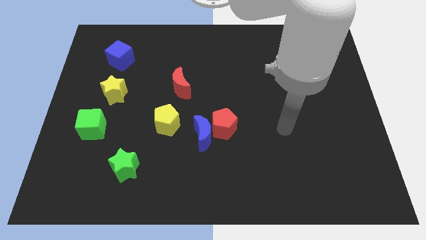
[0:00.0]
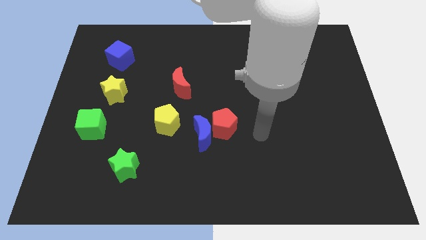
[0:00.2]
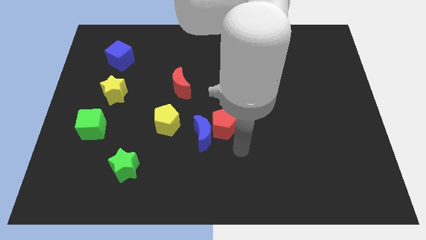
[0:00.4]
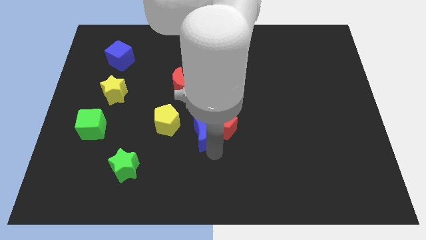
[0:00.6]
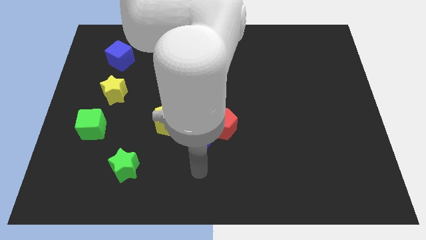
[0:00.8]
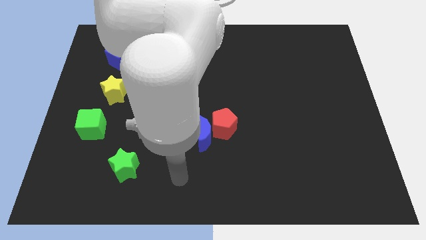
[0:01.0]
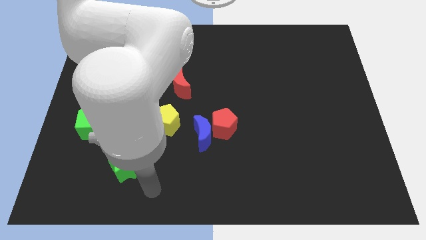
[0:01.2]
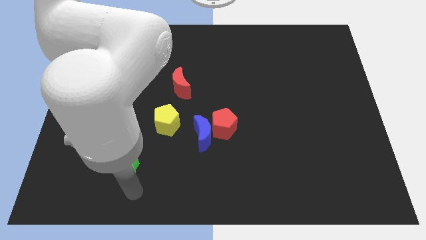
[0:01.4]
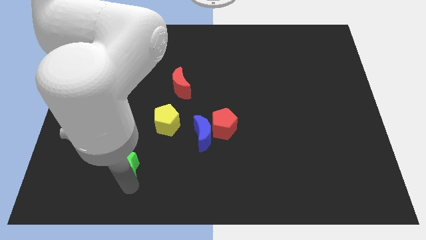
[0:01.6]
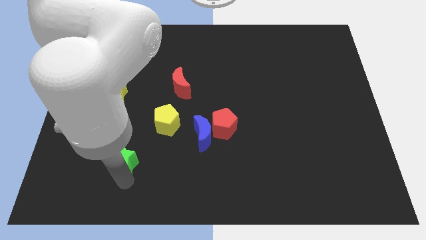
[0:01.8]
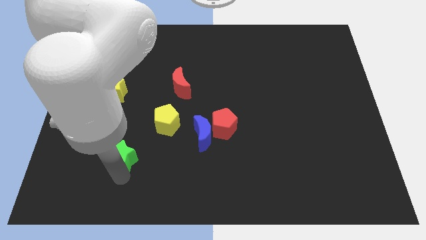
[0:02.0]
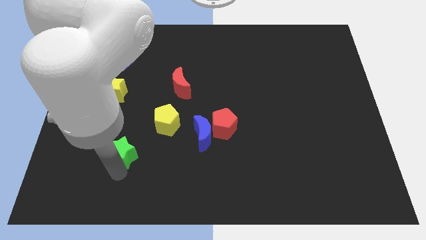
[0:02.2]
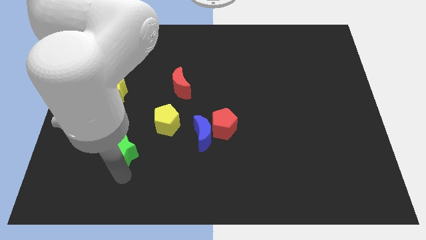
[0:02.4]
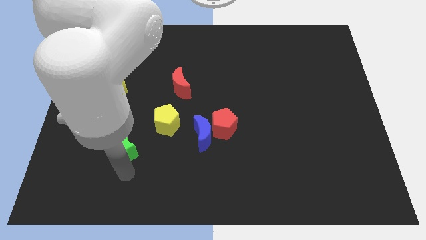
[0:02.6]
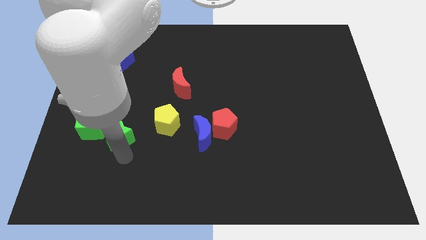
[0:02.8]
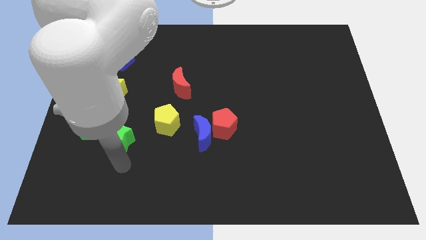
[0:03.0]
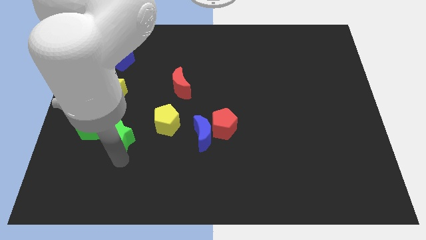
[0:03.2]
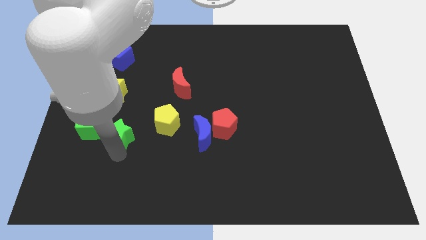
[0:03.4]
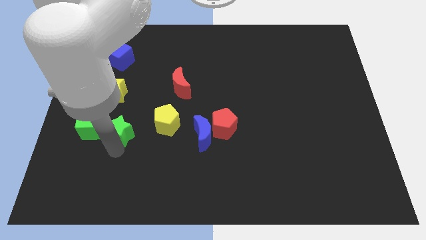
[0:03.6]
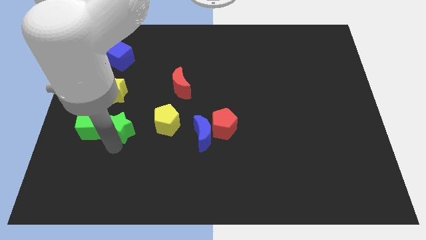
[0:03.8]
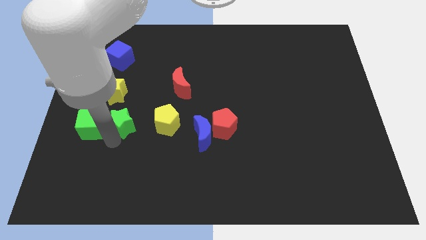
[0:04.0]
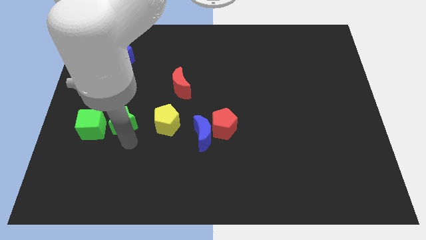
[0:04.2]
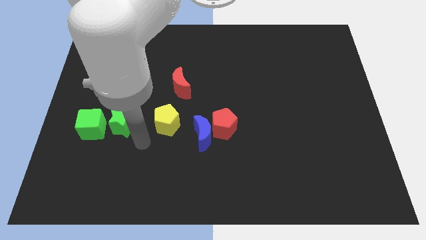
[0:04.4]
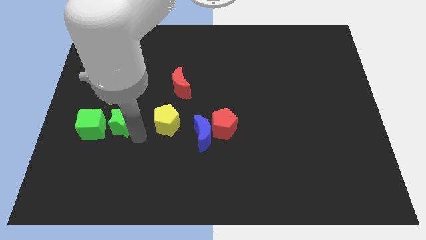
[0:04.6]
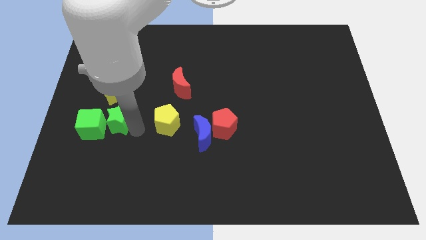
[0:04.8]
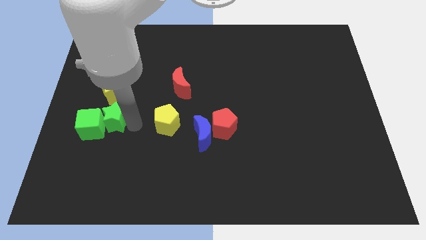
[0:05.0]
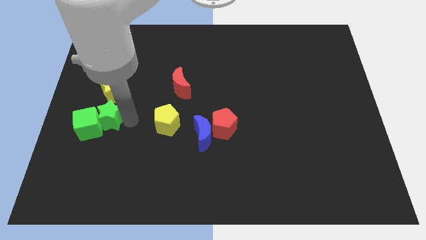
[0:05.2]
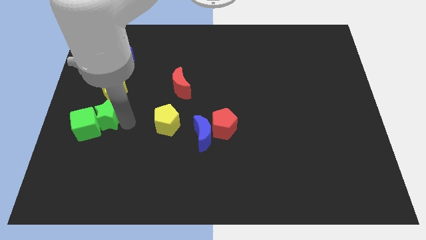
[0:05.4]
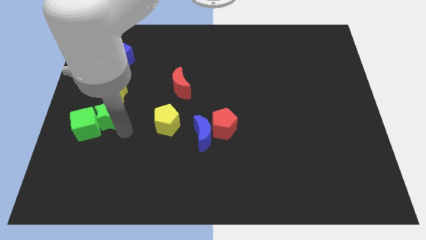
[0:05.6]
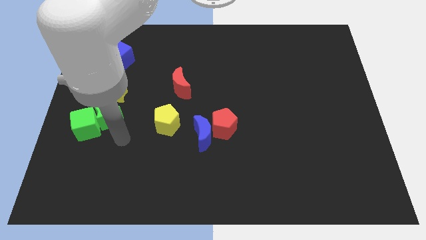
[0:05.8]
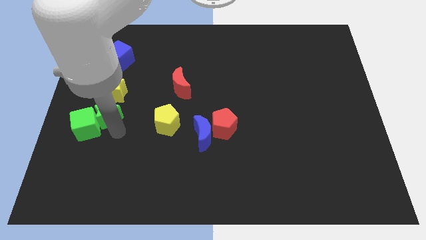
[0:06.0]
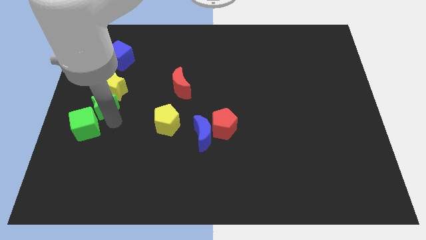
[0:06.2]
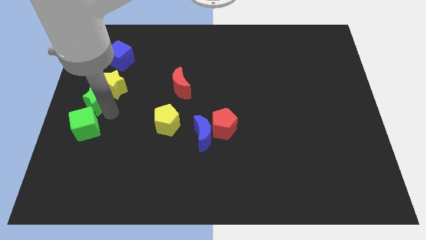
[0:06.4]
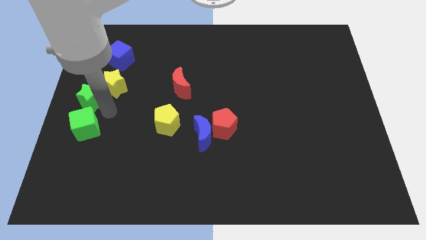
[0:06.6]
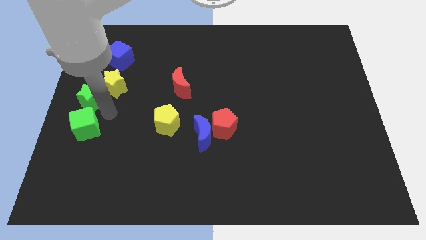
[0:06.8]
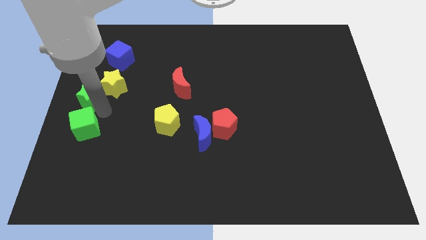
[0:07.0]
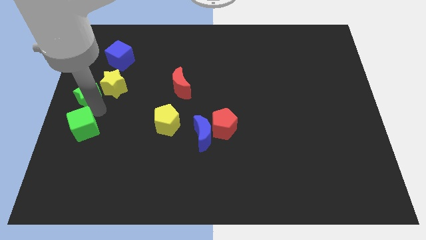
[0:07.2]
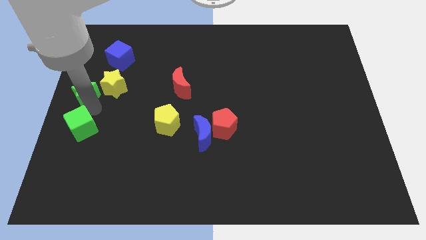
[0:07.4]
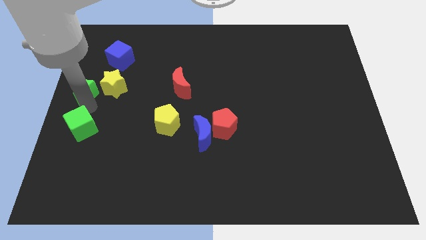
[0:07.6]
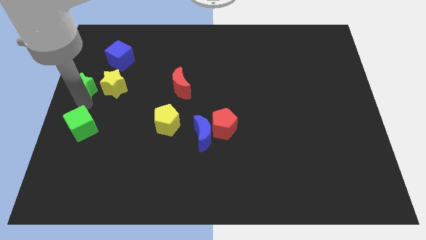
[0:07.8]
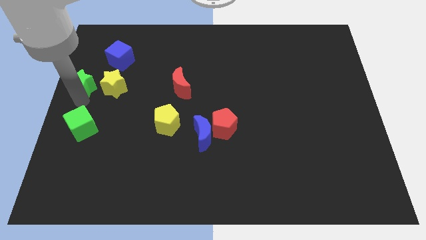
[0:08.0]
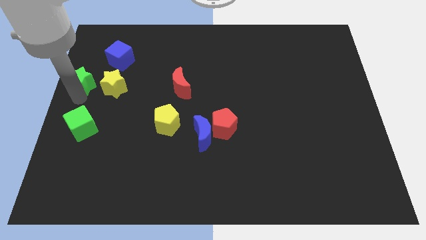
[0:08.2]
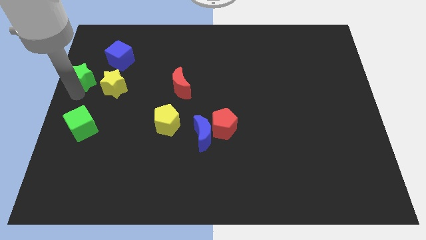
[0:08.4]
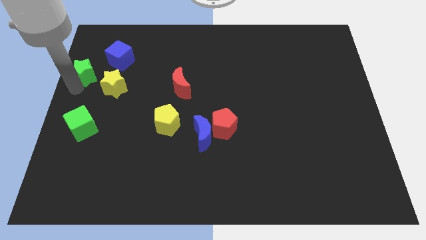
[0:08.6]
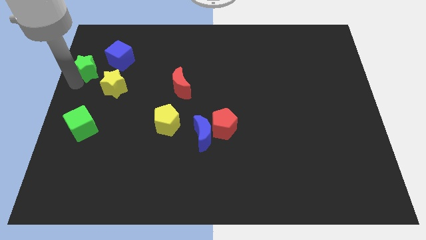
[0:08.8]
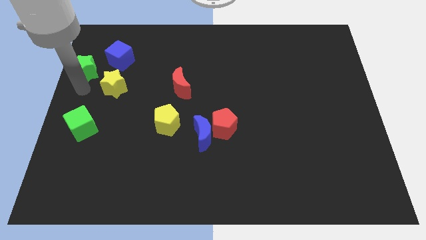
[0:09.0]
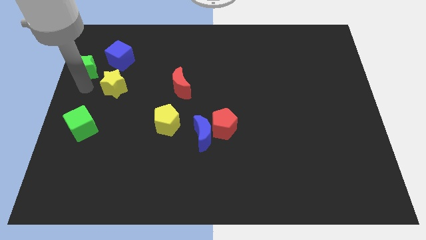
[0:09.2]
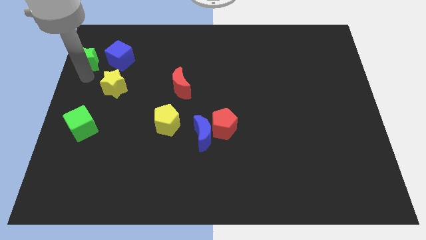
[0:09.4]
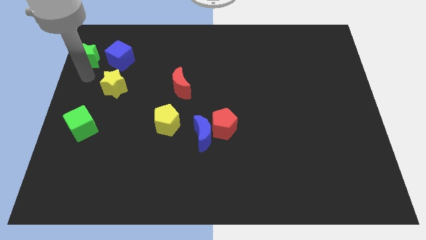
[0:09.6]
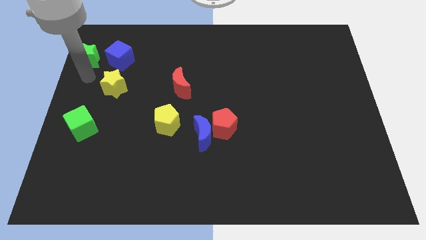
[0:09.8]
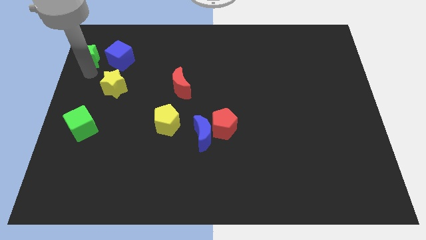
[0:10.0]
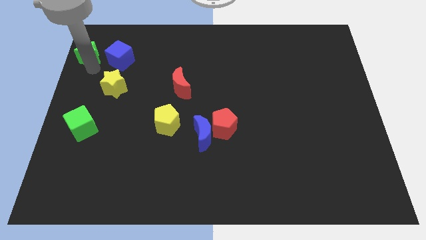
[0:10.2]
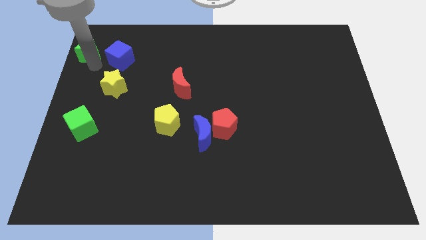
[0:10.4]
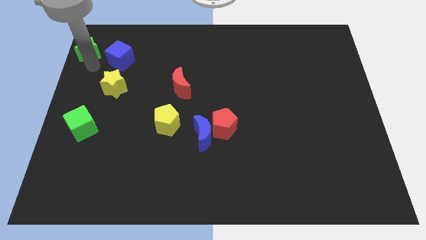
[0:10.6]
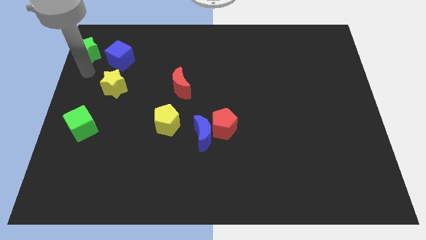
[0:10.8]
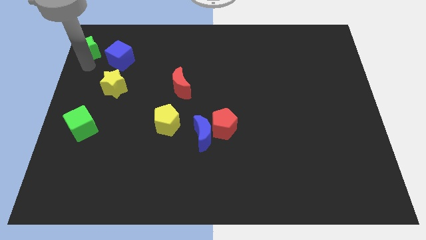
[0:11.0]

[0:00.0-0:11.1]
slide the green star to the top left of the board
